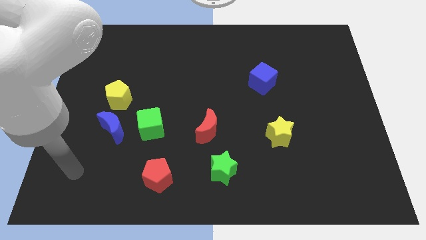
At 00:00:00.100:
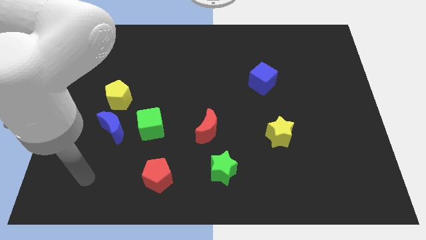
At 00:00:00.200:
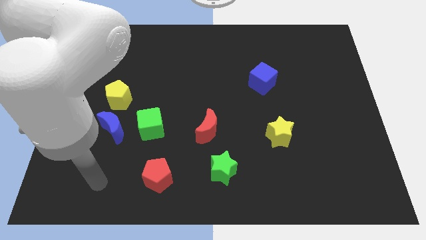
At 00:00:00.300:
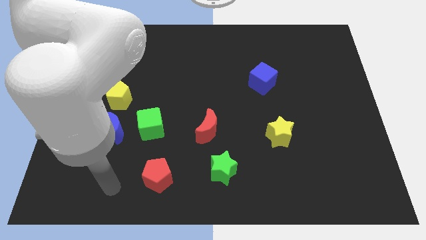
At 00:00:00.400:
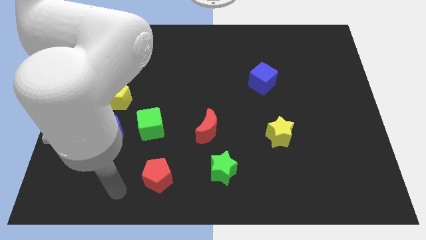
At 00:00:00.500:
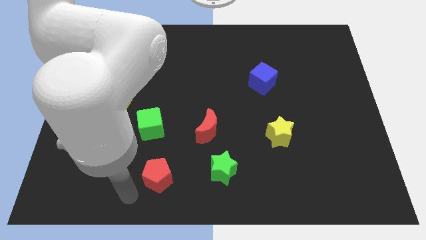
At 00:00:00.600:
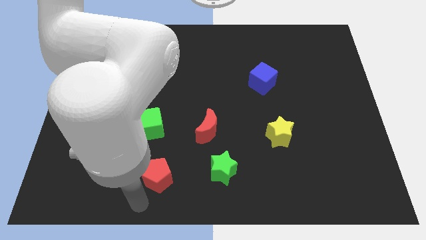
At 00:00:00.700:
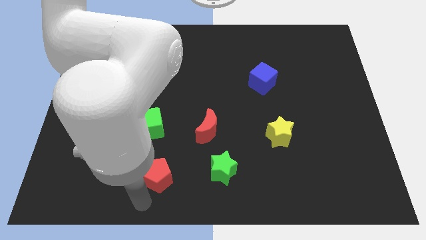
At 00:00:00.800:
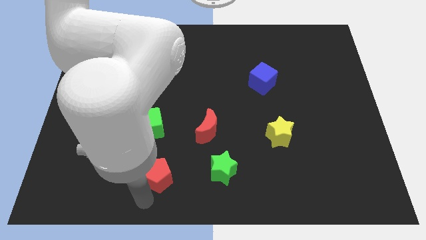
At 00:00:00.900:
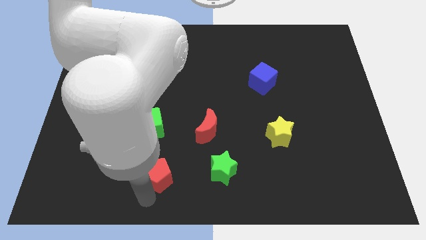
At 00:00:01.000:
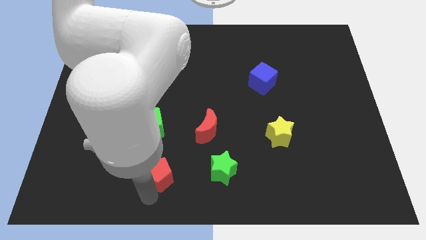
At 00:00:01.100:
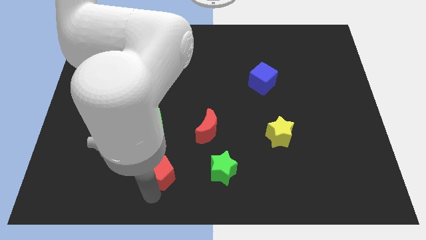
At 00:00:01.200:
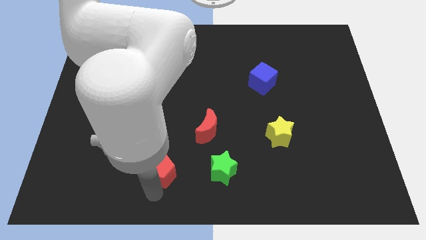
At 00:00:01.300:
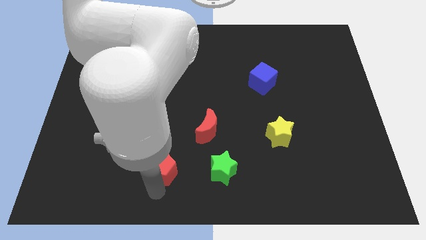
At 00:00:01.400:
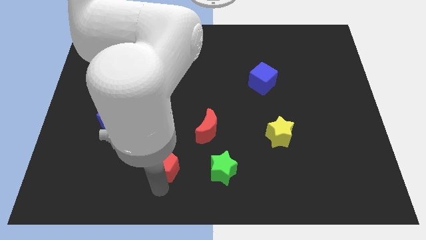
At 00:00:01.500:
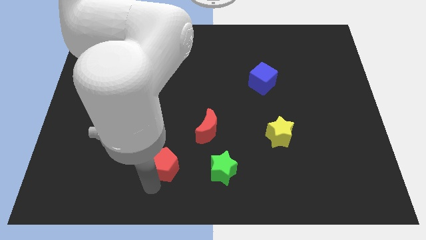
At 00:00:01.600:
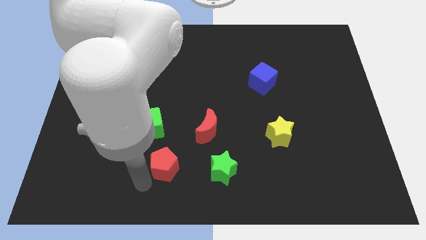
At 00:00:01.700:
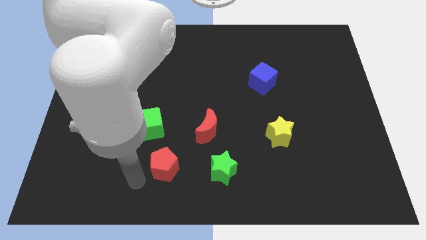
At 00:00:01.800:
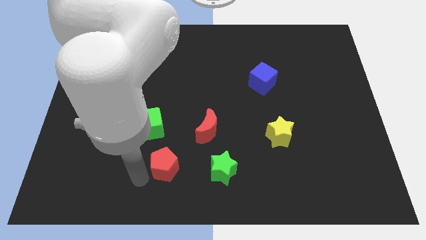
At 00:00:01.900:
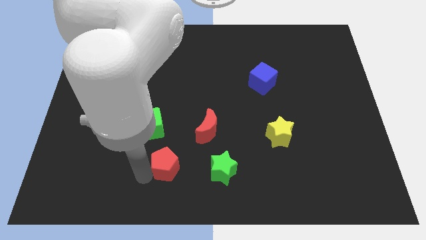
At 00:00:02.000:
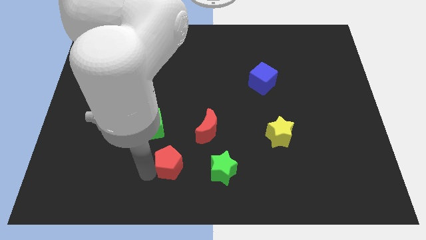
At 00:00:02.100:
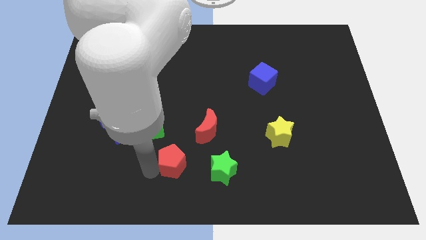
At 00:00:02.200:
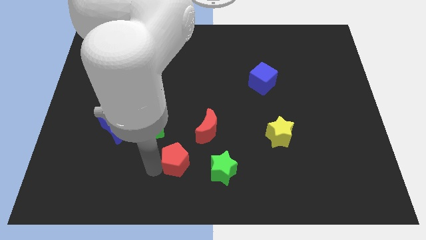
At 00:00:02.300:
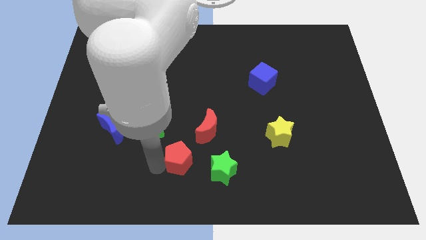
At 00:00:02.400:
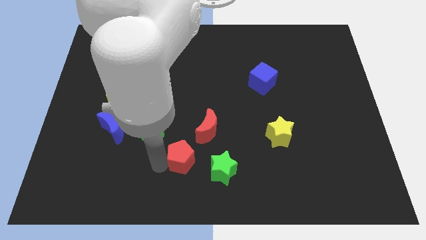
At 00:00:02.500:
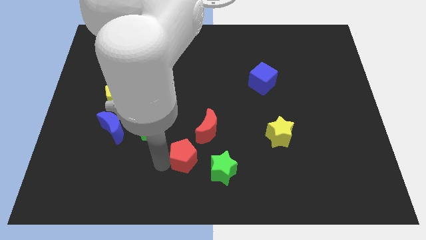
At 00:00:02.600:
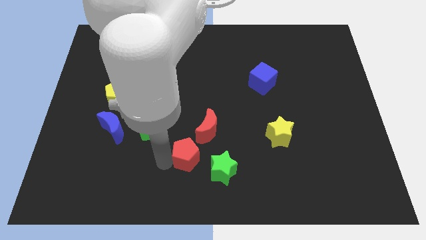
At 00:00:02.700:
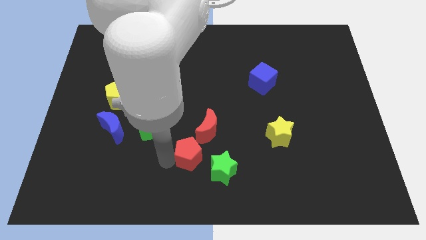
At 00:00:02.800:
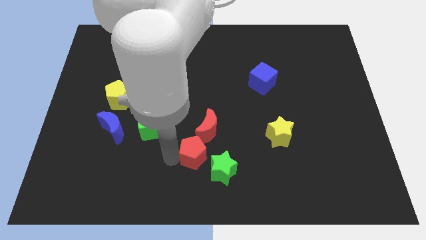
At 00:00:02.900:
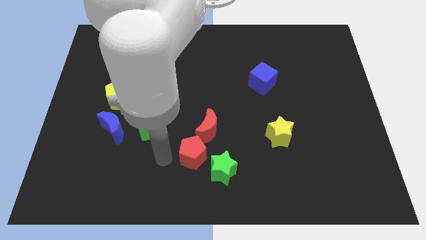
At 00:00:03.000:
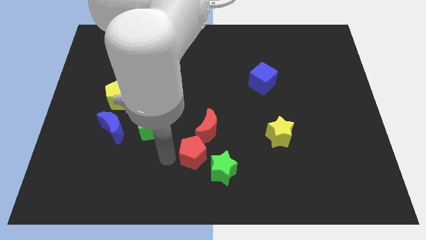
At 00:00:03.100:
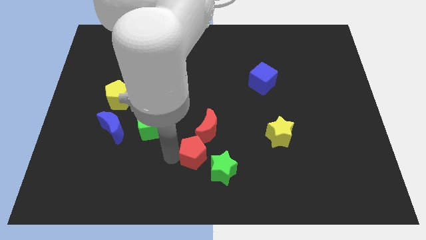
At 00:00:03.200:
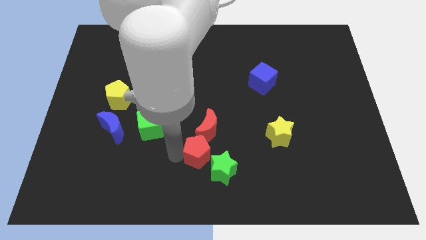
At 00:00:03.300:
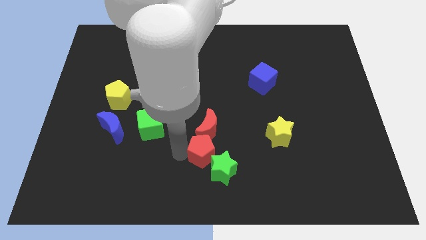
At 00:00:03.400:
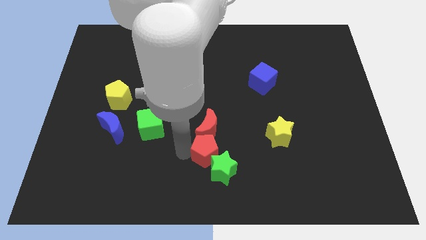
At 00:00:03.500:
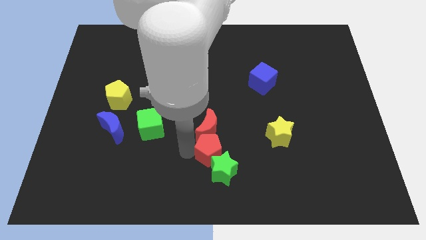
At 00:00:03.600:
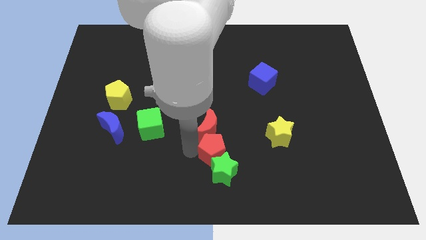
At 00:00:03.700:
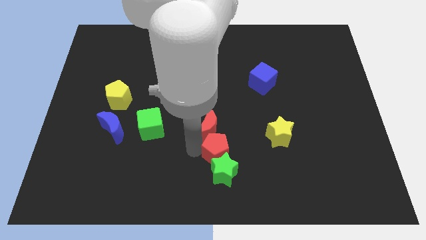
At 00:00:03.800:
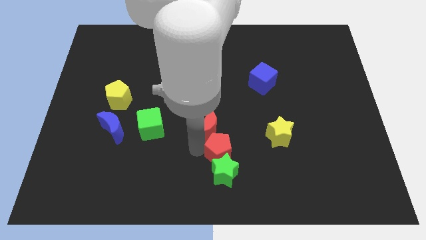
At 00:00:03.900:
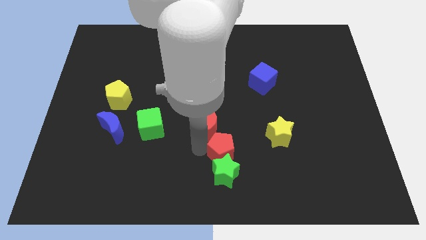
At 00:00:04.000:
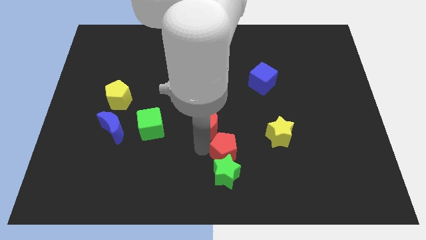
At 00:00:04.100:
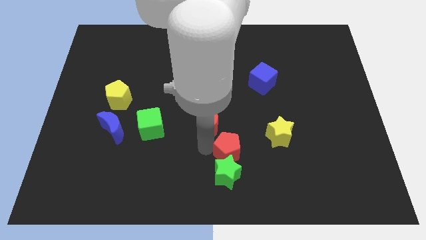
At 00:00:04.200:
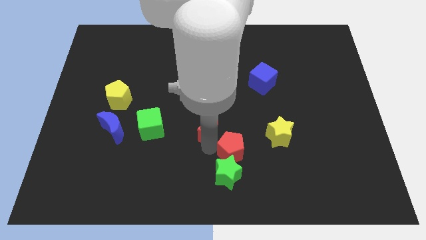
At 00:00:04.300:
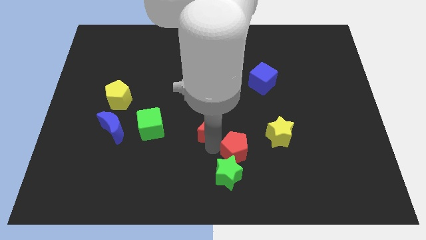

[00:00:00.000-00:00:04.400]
push the red pentagon to the bottom left of the yellow star

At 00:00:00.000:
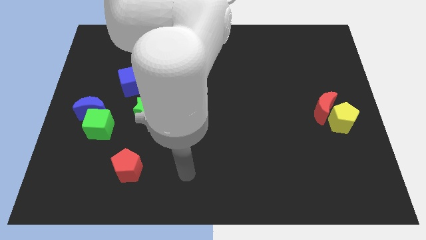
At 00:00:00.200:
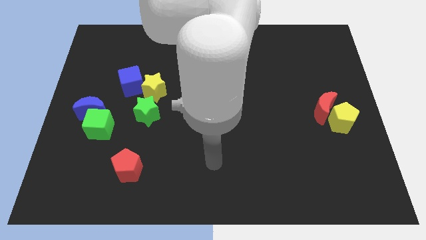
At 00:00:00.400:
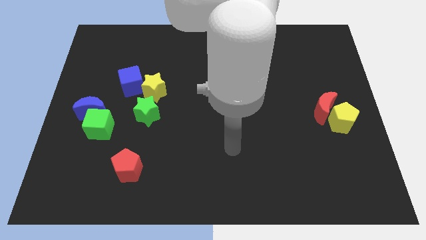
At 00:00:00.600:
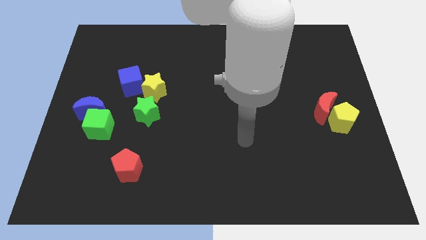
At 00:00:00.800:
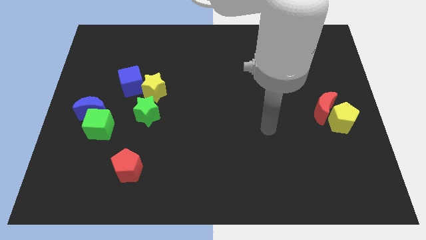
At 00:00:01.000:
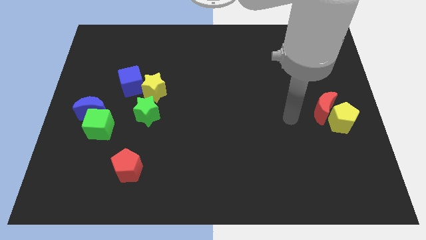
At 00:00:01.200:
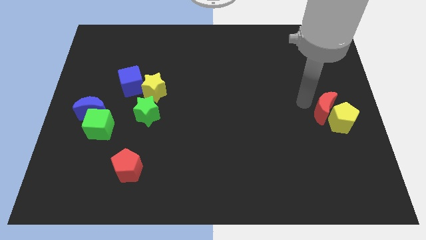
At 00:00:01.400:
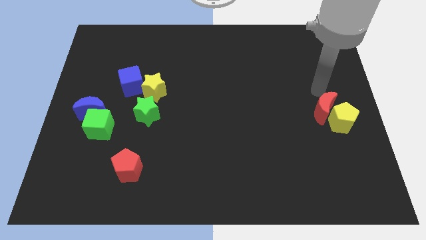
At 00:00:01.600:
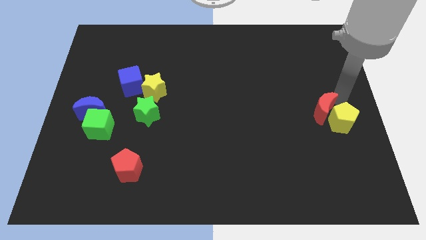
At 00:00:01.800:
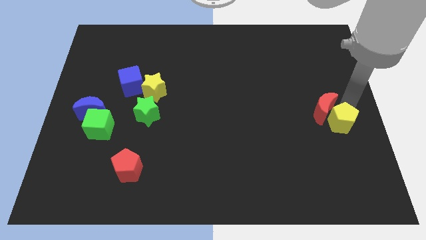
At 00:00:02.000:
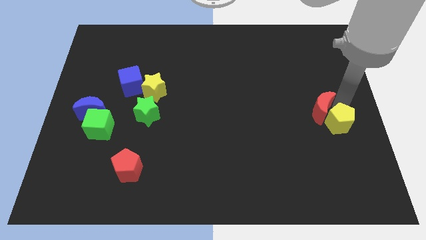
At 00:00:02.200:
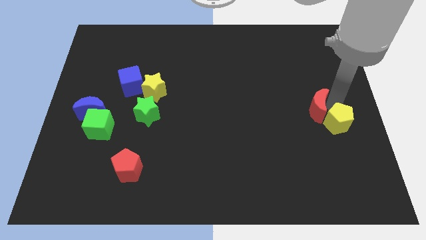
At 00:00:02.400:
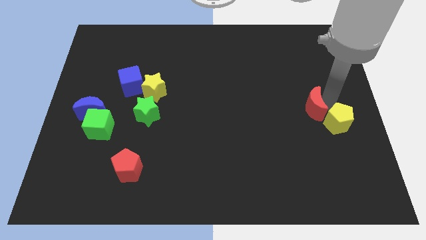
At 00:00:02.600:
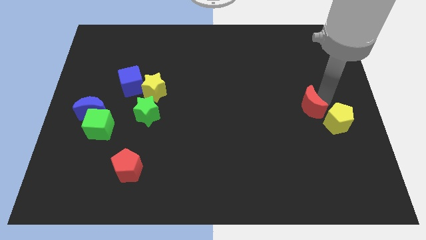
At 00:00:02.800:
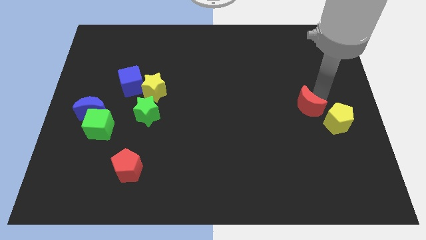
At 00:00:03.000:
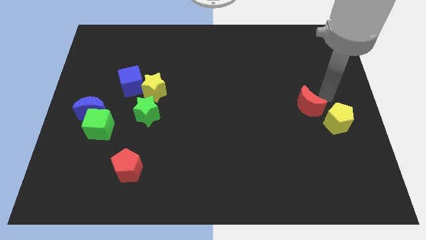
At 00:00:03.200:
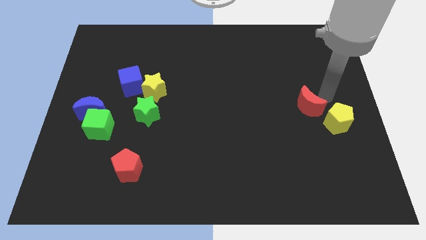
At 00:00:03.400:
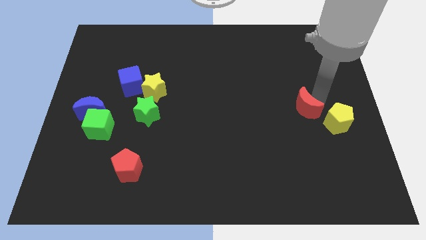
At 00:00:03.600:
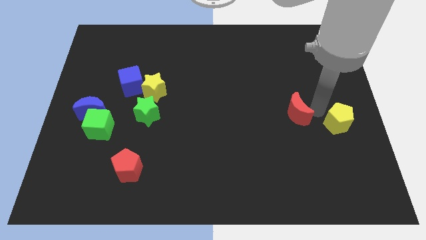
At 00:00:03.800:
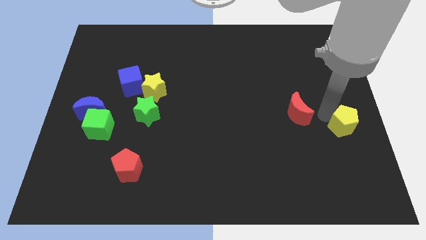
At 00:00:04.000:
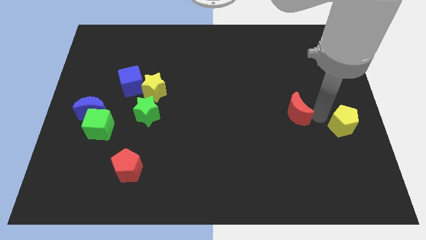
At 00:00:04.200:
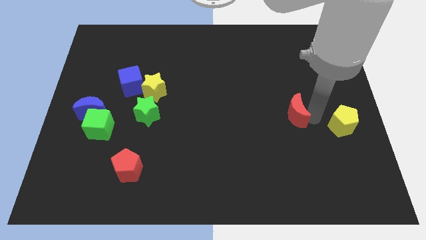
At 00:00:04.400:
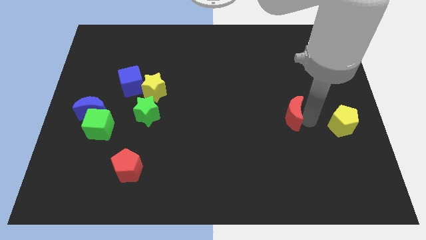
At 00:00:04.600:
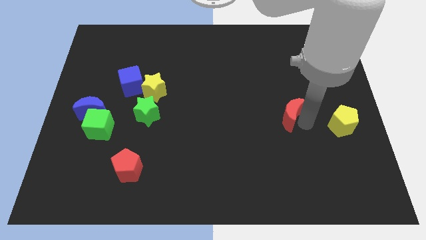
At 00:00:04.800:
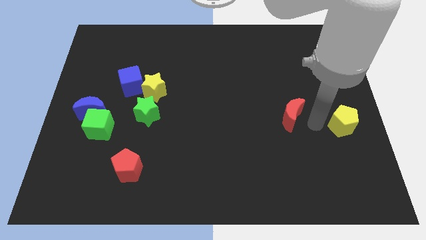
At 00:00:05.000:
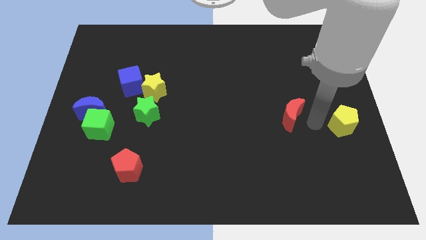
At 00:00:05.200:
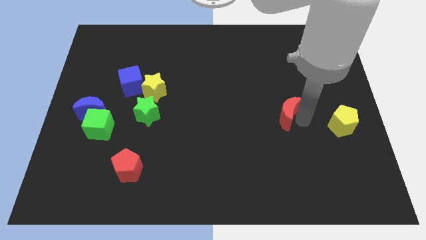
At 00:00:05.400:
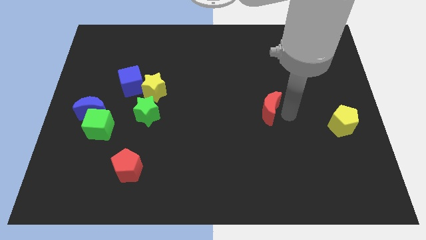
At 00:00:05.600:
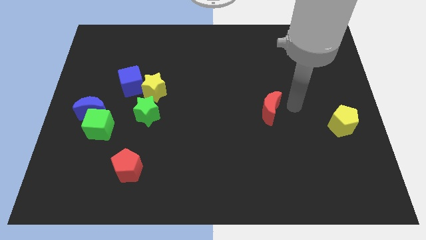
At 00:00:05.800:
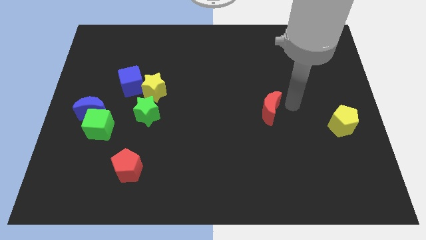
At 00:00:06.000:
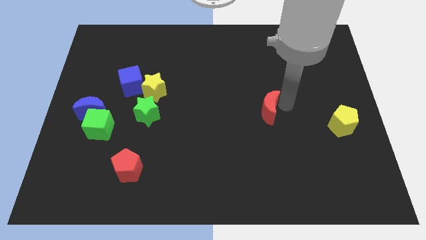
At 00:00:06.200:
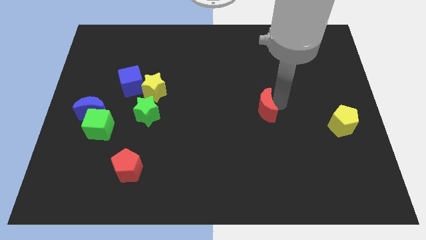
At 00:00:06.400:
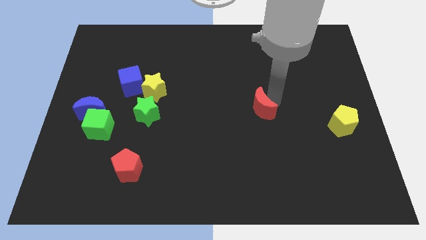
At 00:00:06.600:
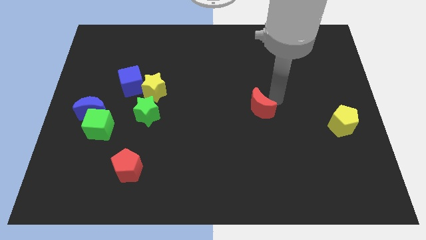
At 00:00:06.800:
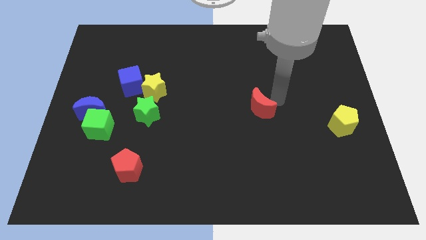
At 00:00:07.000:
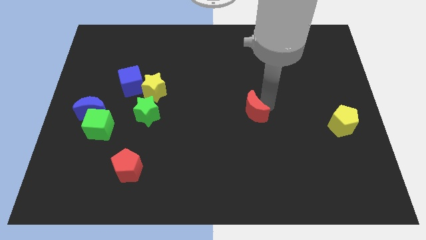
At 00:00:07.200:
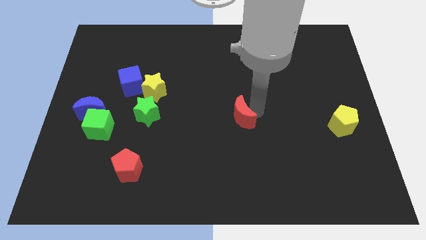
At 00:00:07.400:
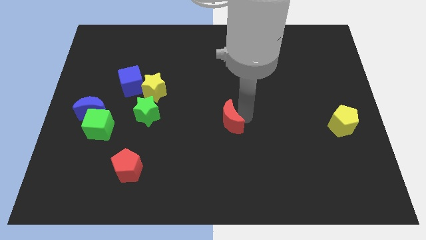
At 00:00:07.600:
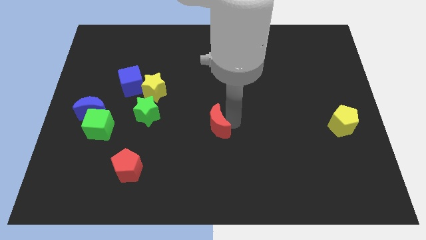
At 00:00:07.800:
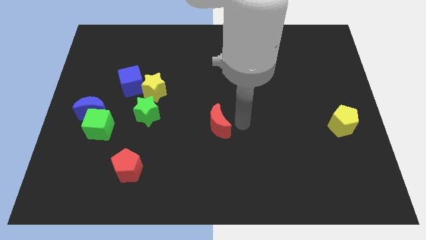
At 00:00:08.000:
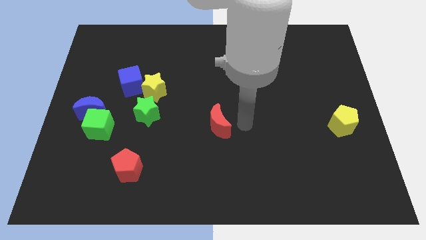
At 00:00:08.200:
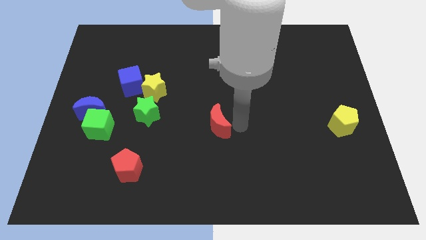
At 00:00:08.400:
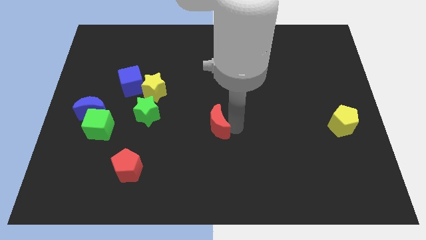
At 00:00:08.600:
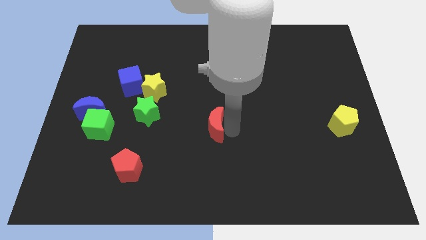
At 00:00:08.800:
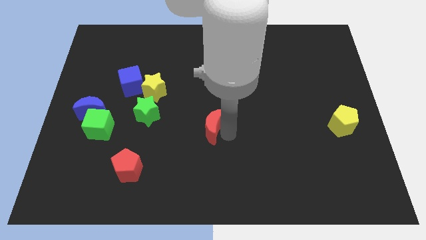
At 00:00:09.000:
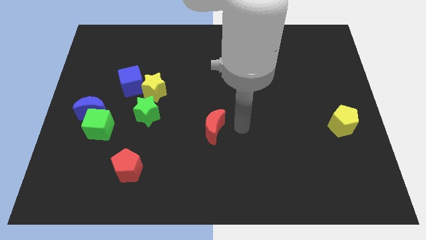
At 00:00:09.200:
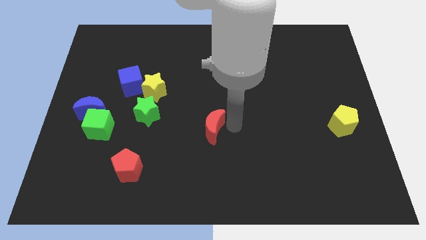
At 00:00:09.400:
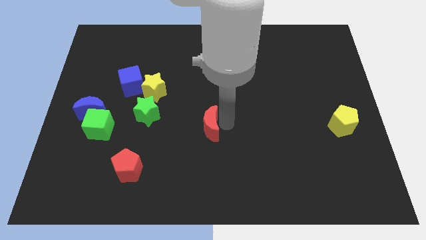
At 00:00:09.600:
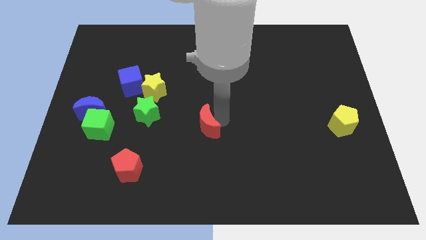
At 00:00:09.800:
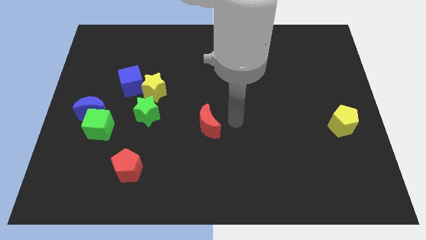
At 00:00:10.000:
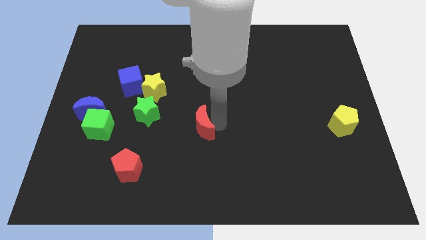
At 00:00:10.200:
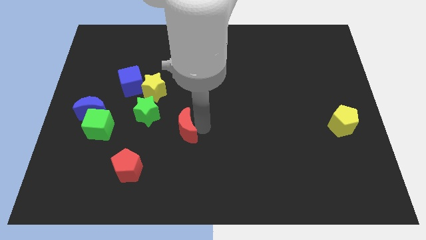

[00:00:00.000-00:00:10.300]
put the red moon to the bottom right of the green star
